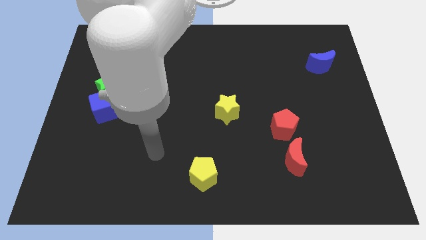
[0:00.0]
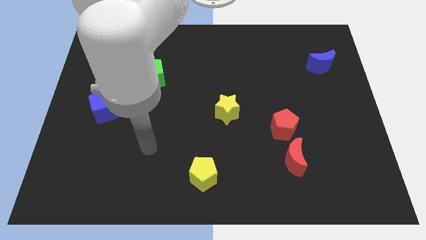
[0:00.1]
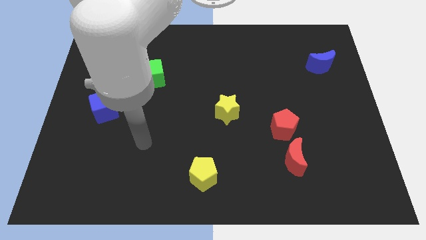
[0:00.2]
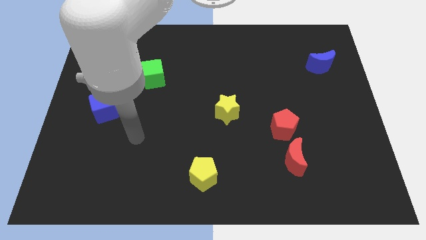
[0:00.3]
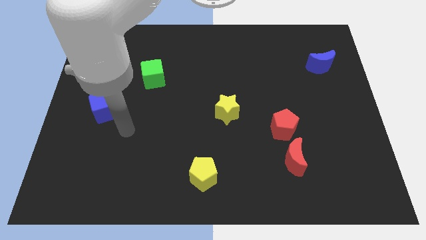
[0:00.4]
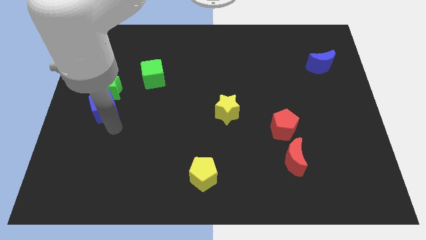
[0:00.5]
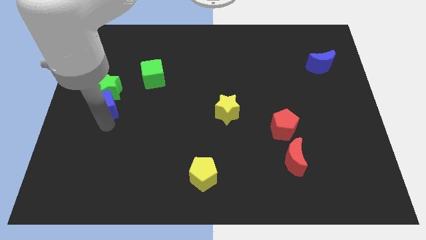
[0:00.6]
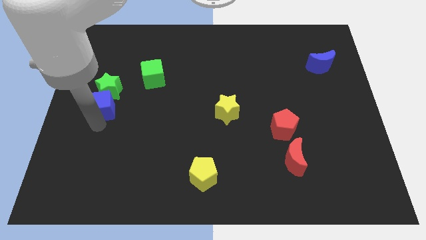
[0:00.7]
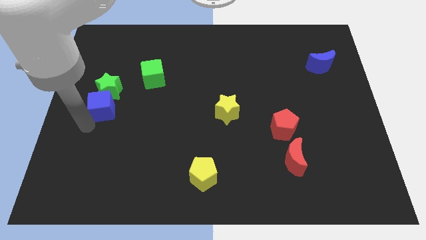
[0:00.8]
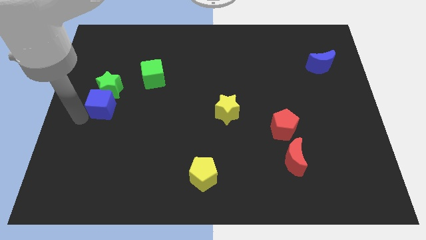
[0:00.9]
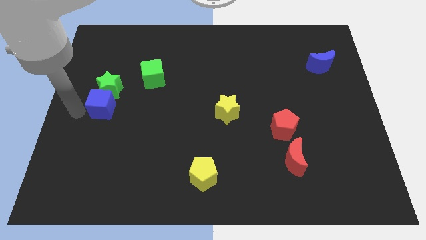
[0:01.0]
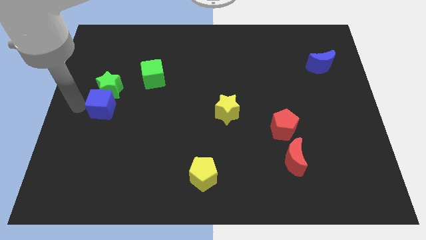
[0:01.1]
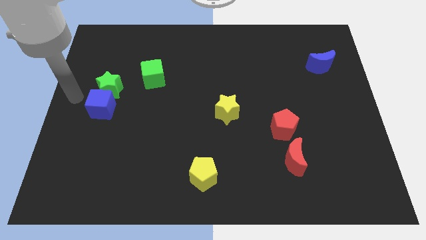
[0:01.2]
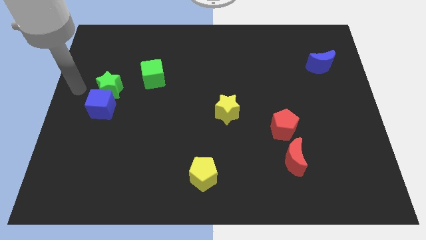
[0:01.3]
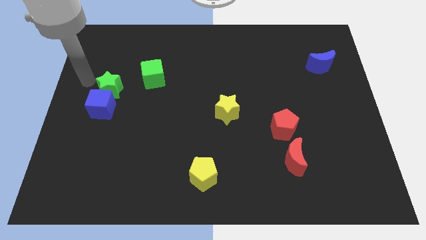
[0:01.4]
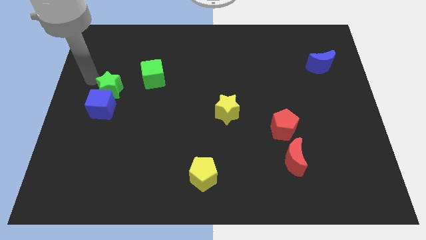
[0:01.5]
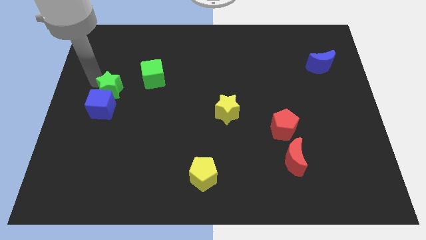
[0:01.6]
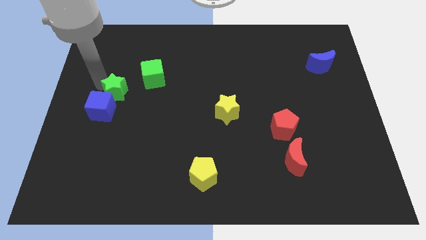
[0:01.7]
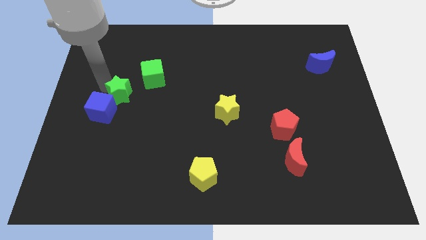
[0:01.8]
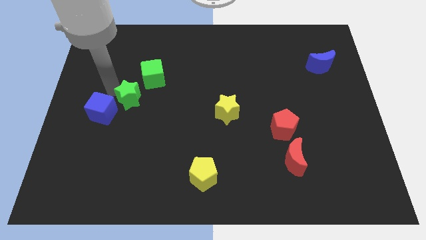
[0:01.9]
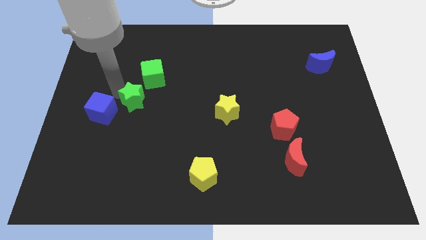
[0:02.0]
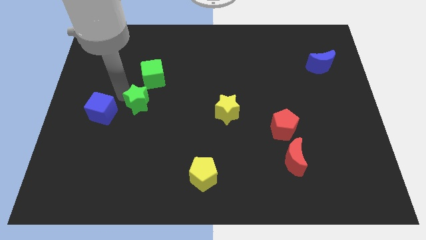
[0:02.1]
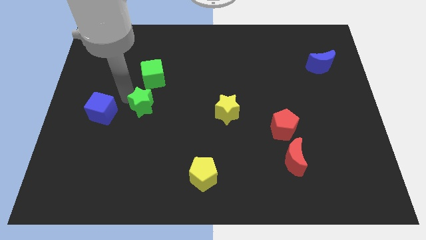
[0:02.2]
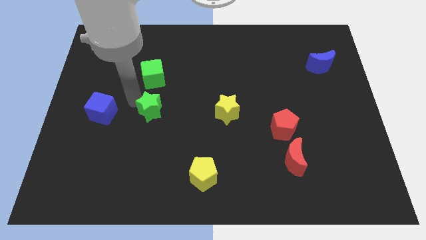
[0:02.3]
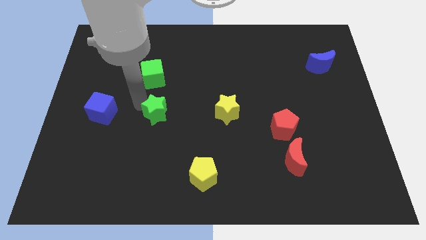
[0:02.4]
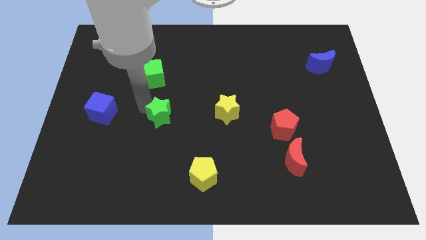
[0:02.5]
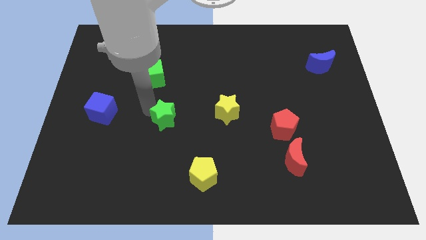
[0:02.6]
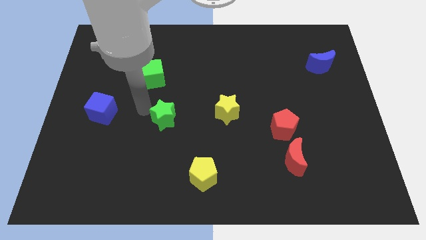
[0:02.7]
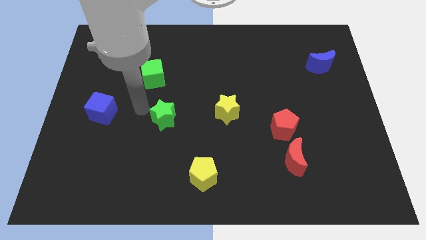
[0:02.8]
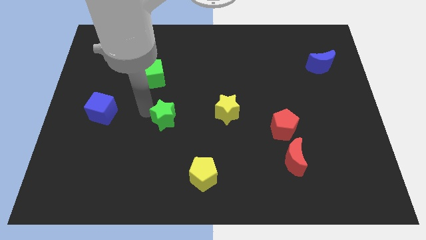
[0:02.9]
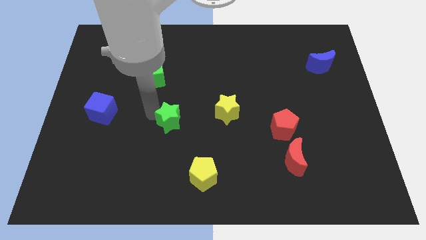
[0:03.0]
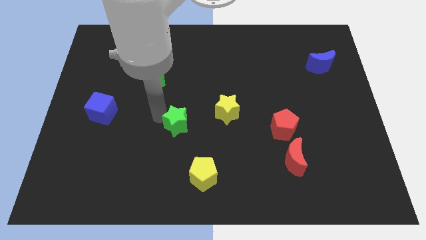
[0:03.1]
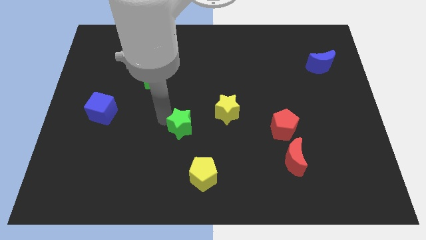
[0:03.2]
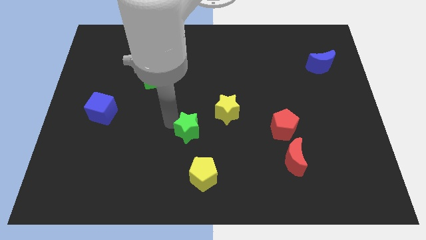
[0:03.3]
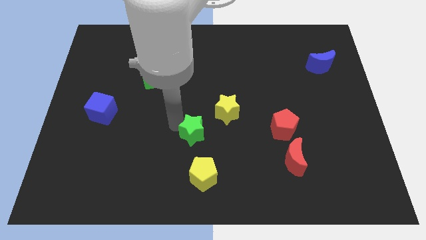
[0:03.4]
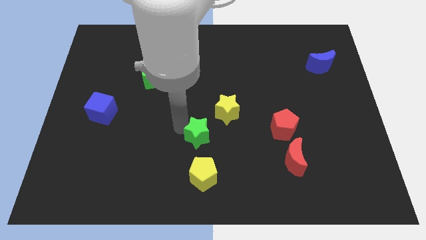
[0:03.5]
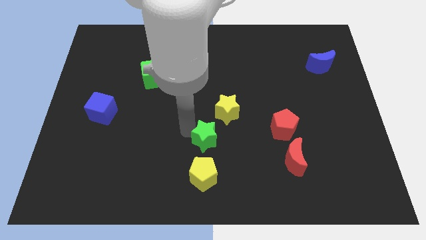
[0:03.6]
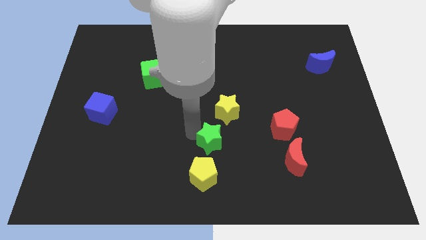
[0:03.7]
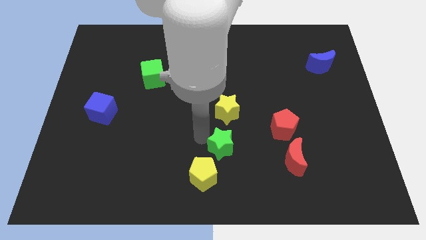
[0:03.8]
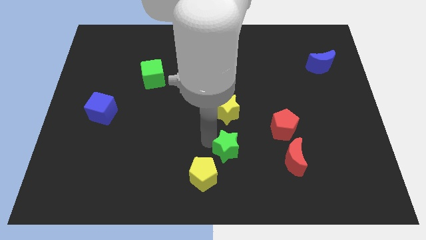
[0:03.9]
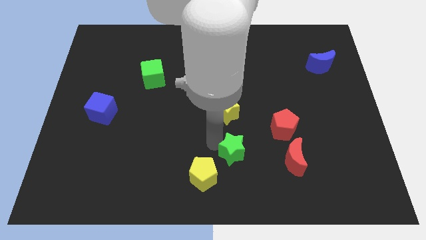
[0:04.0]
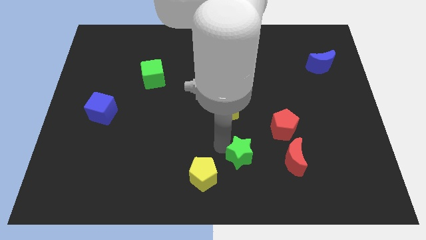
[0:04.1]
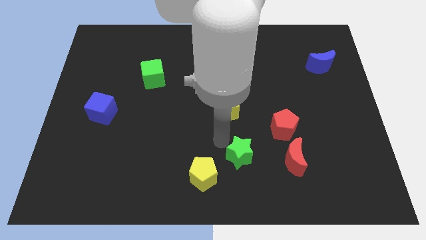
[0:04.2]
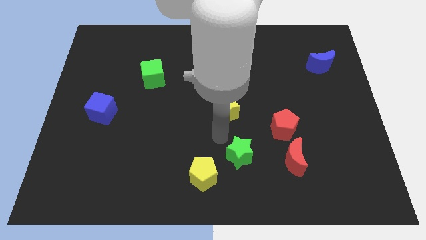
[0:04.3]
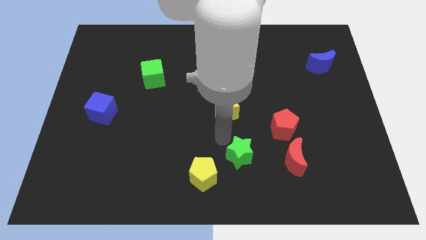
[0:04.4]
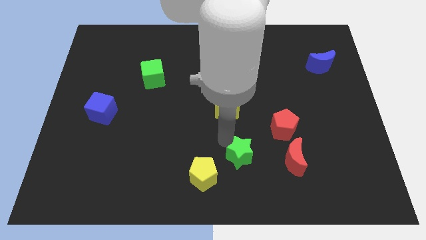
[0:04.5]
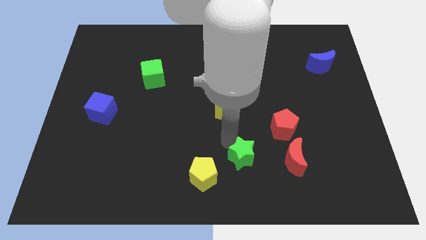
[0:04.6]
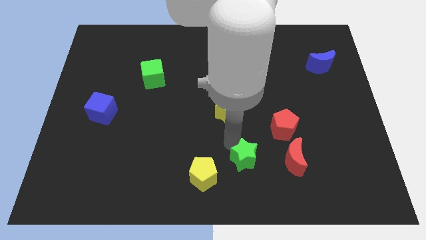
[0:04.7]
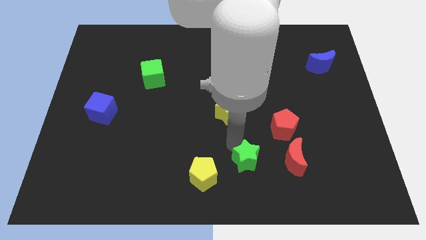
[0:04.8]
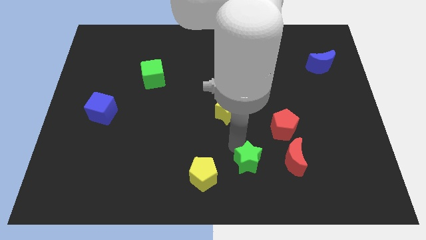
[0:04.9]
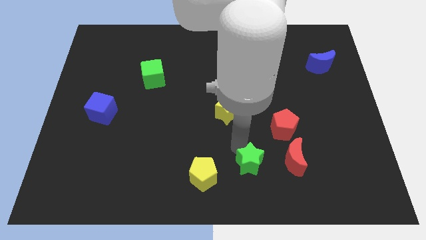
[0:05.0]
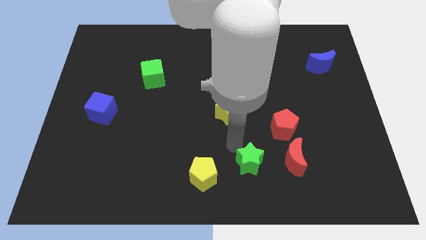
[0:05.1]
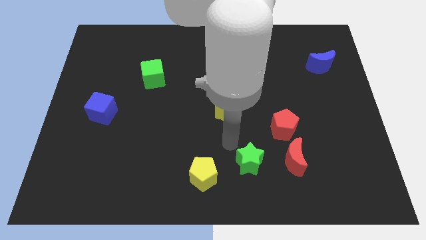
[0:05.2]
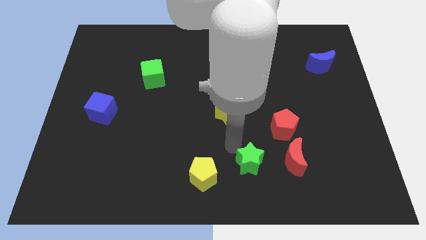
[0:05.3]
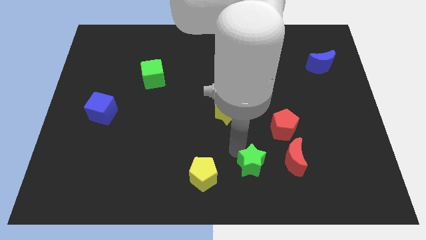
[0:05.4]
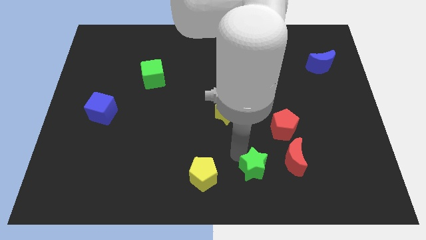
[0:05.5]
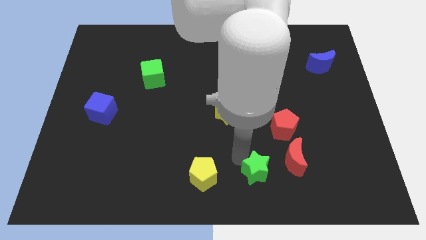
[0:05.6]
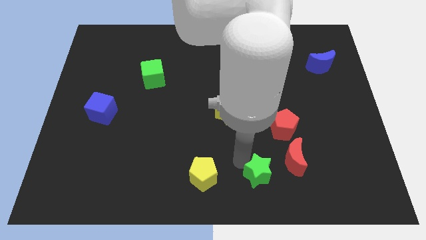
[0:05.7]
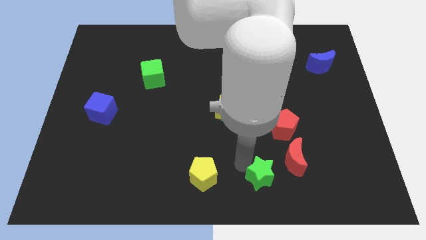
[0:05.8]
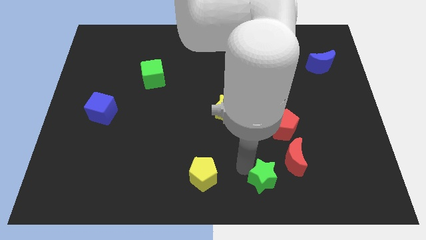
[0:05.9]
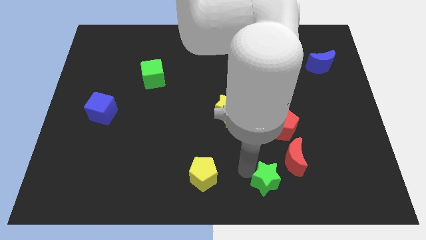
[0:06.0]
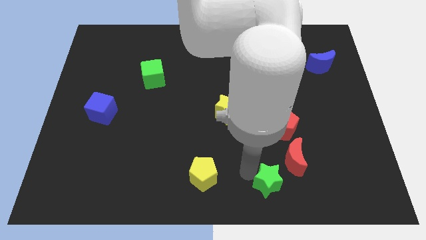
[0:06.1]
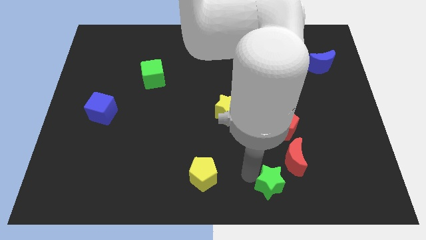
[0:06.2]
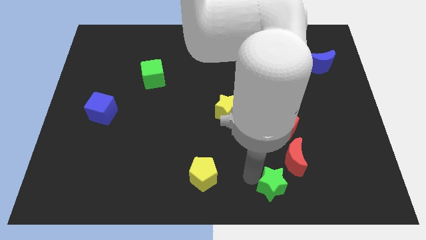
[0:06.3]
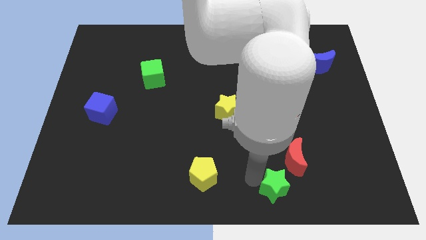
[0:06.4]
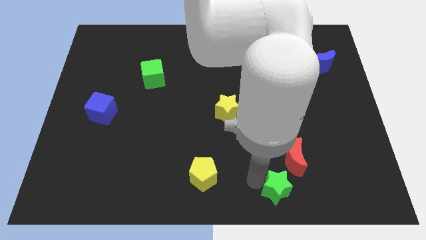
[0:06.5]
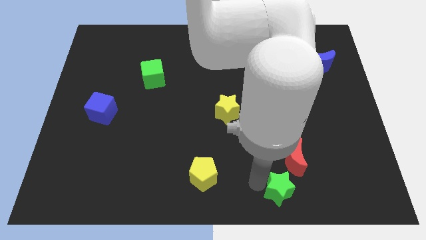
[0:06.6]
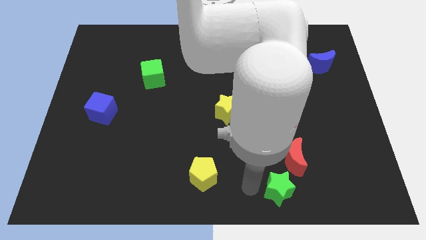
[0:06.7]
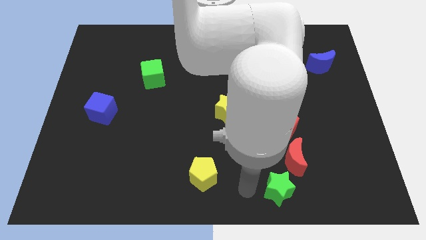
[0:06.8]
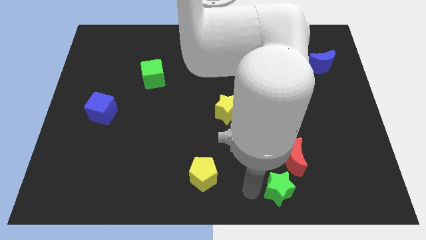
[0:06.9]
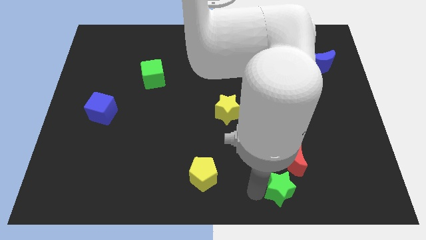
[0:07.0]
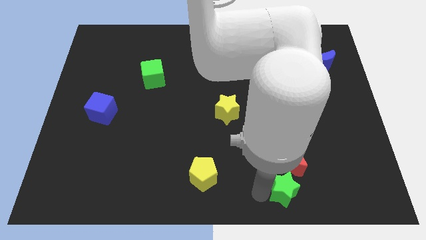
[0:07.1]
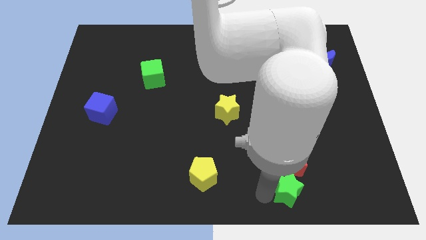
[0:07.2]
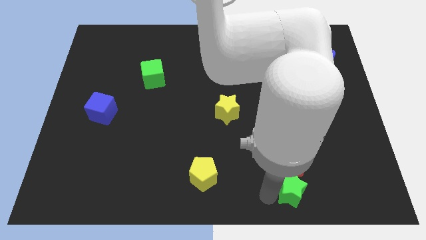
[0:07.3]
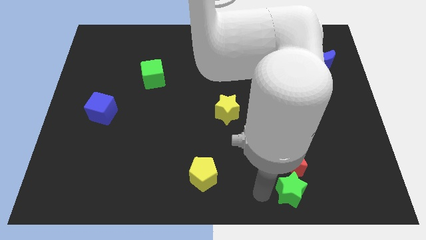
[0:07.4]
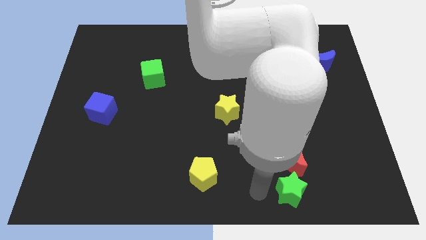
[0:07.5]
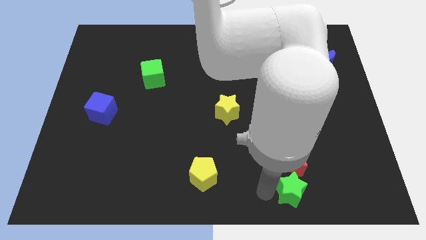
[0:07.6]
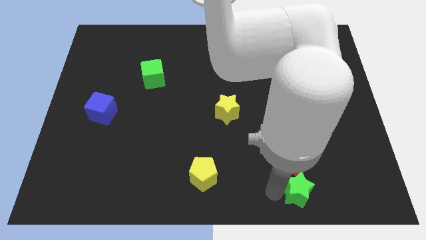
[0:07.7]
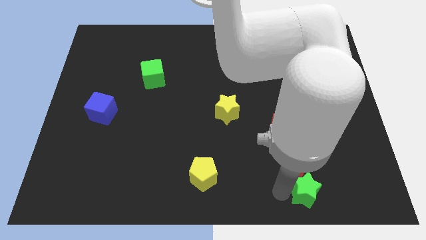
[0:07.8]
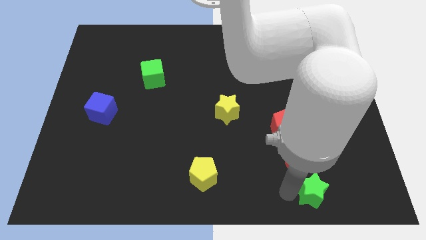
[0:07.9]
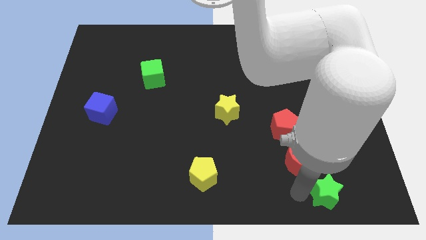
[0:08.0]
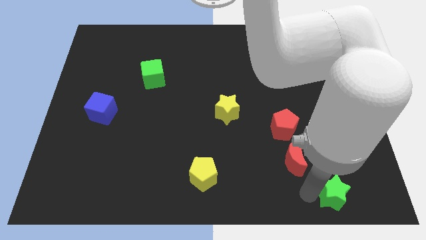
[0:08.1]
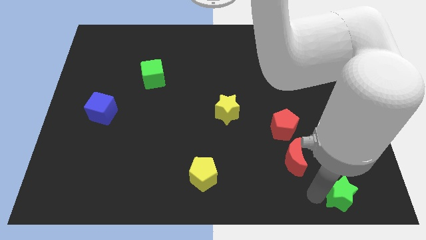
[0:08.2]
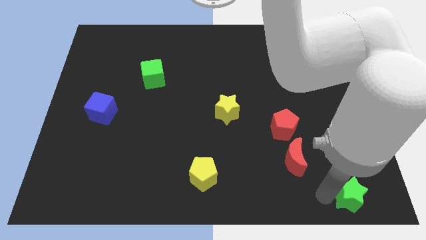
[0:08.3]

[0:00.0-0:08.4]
push the green star to the bottom right corner
